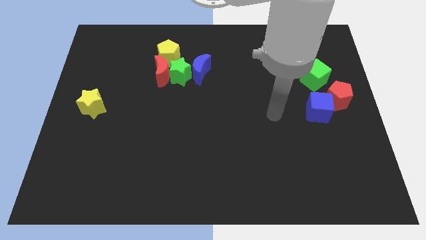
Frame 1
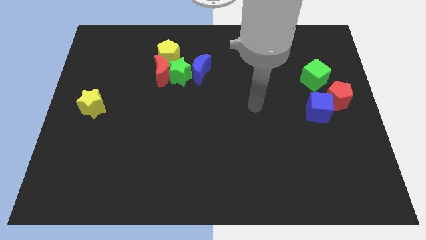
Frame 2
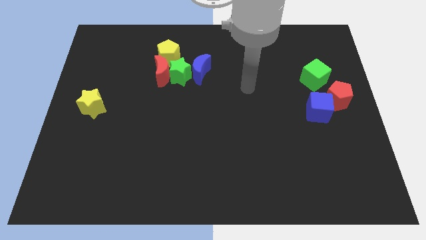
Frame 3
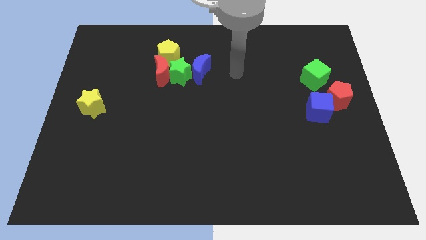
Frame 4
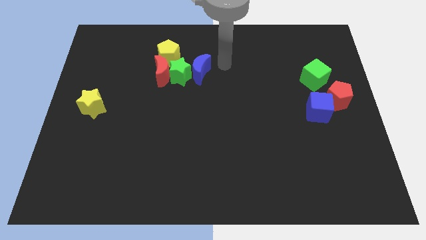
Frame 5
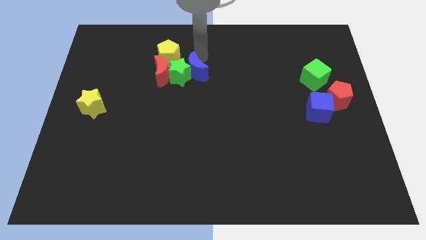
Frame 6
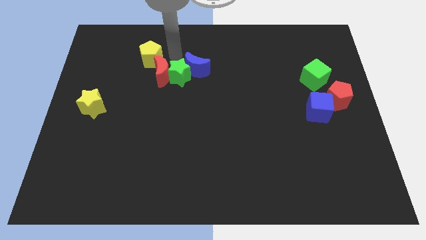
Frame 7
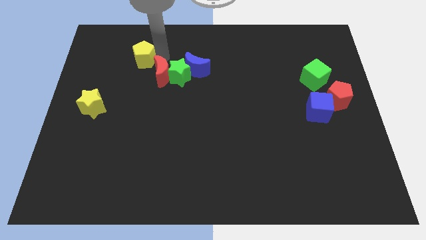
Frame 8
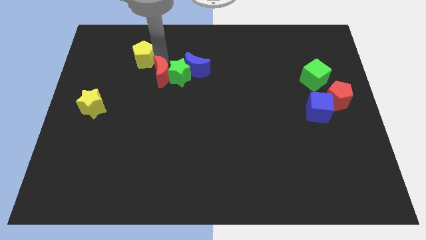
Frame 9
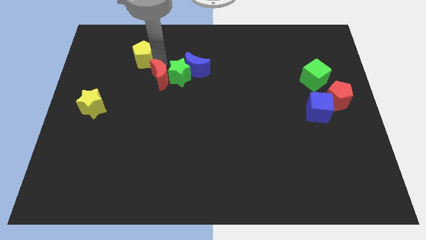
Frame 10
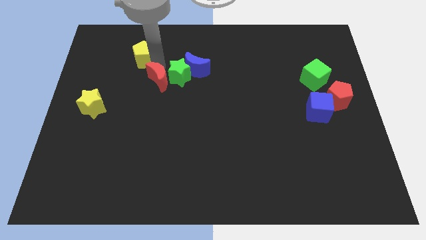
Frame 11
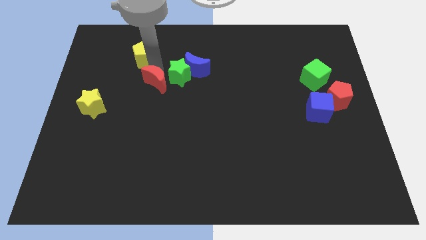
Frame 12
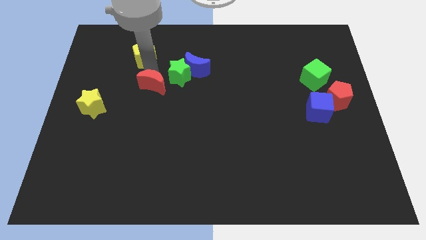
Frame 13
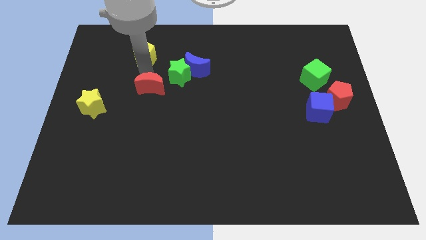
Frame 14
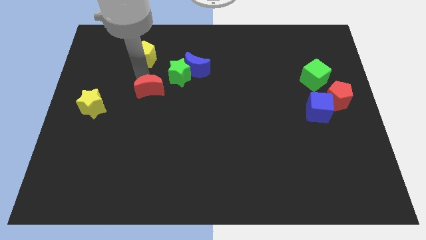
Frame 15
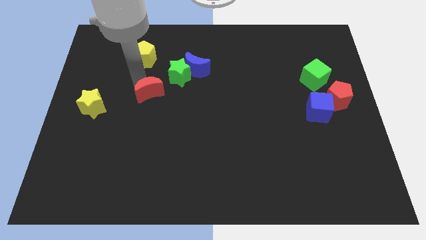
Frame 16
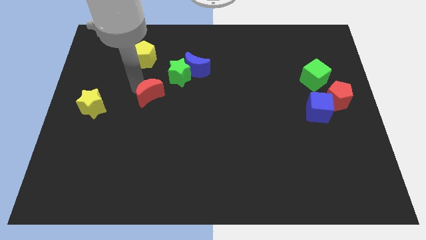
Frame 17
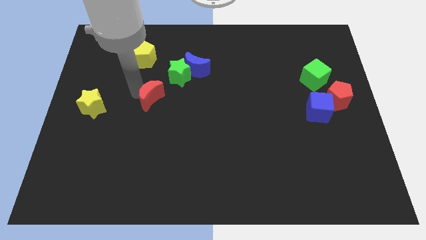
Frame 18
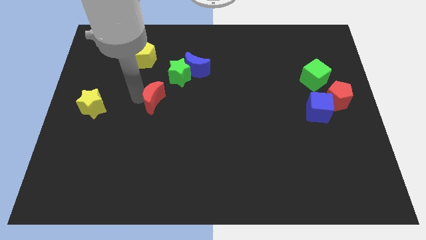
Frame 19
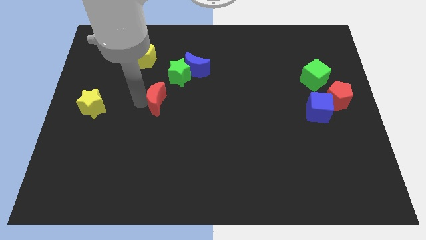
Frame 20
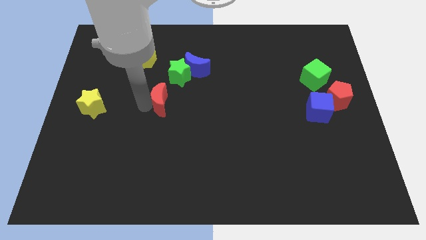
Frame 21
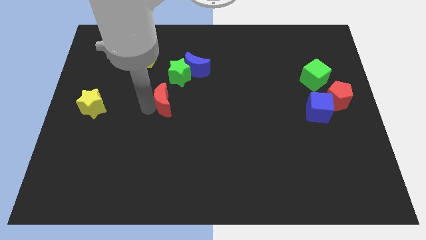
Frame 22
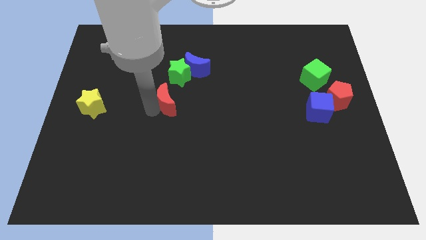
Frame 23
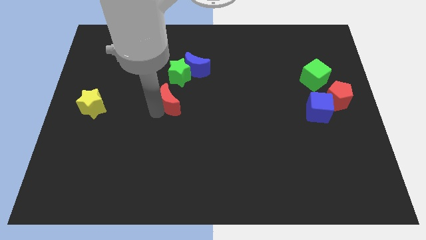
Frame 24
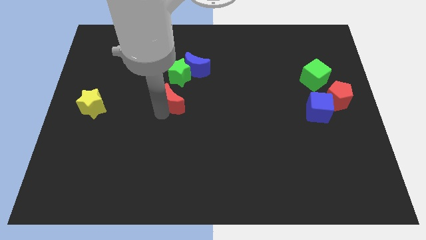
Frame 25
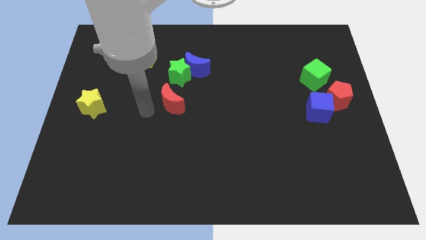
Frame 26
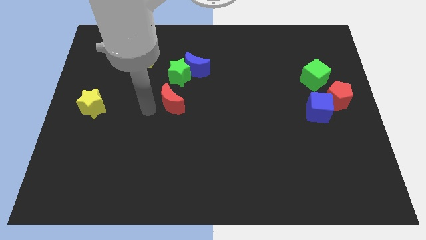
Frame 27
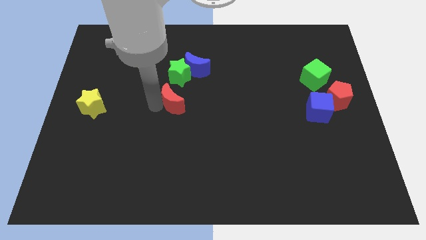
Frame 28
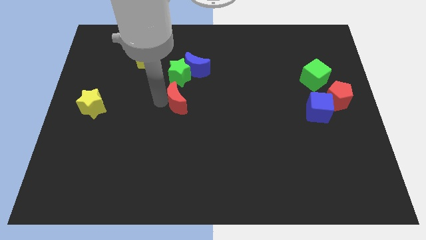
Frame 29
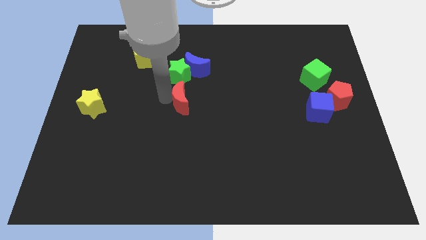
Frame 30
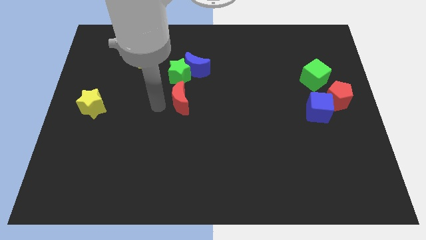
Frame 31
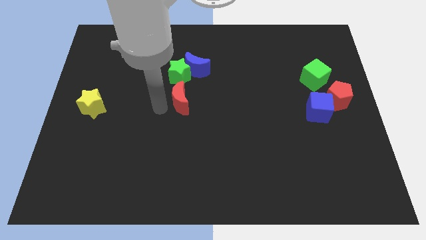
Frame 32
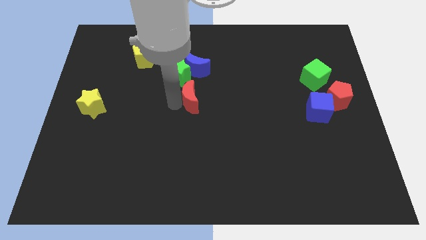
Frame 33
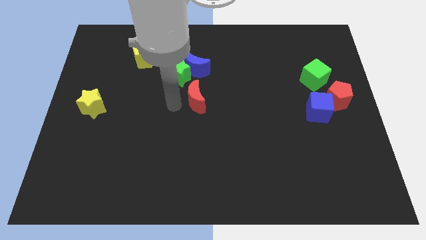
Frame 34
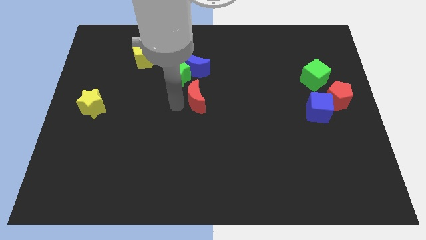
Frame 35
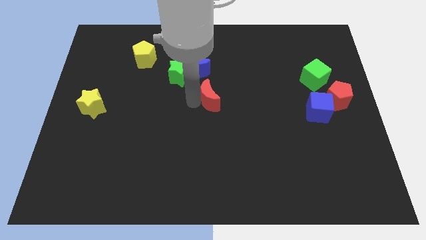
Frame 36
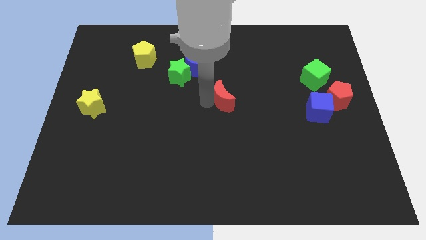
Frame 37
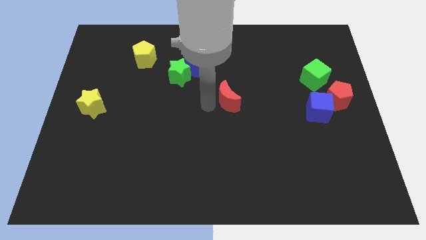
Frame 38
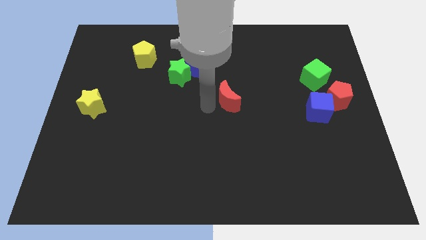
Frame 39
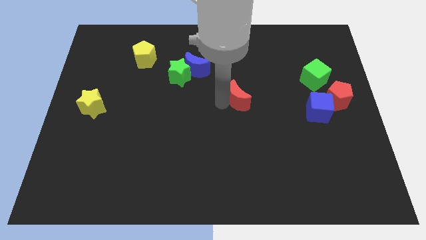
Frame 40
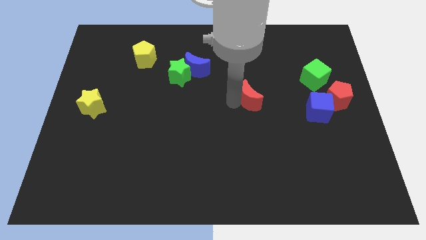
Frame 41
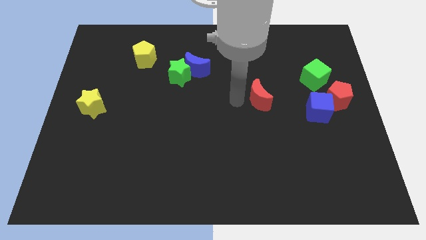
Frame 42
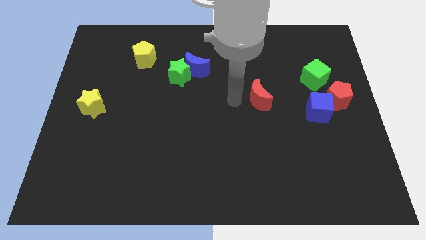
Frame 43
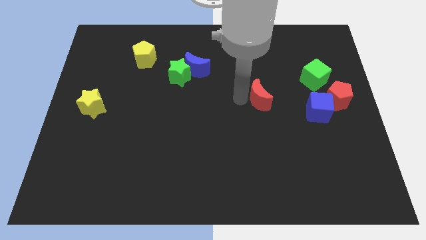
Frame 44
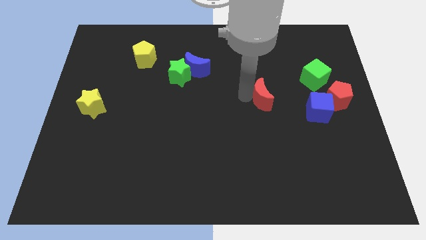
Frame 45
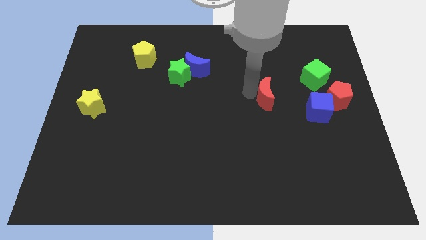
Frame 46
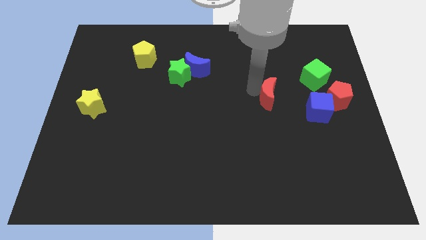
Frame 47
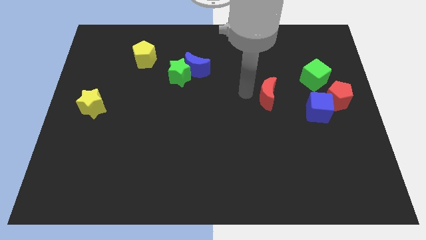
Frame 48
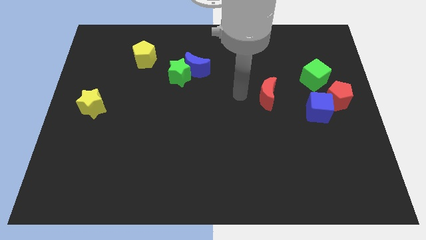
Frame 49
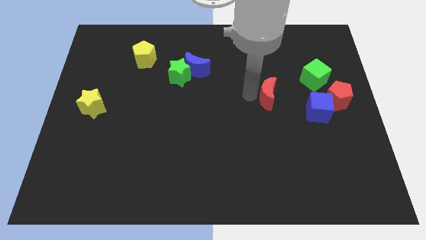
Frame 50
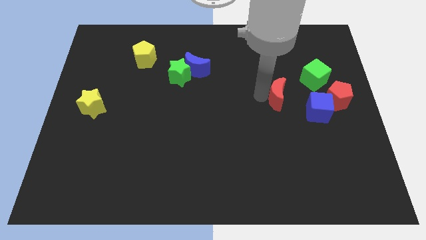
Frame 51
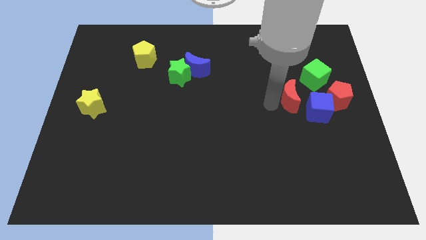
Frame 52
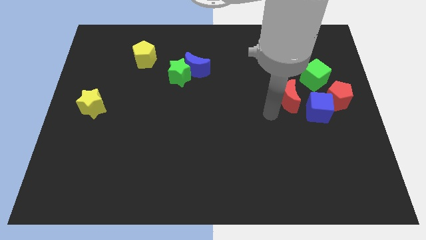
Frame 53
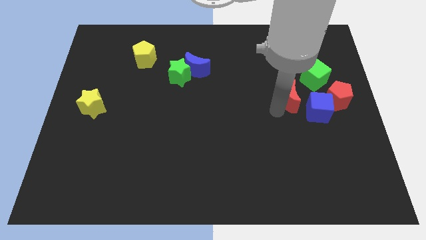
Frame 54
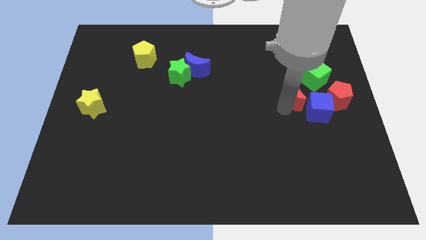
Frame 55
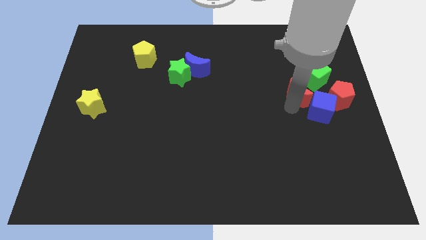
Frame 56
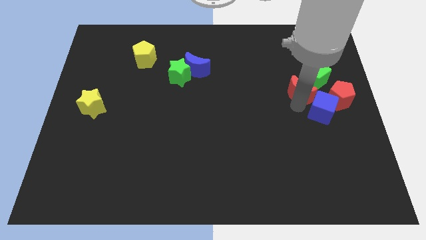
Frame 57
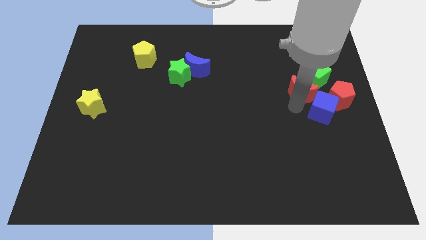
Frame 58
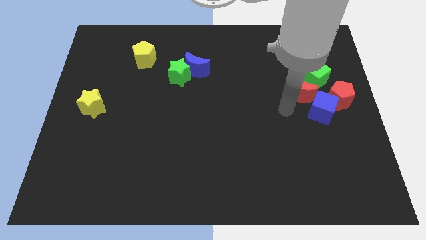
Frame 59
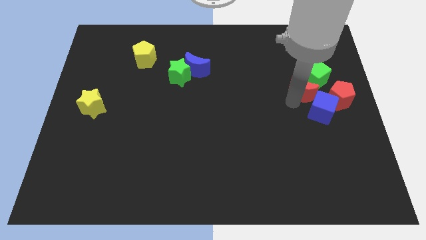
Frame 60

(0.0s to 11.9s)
move the red moon next to the green cube

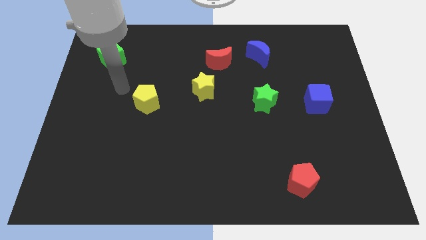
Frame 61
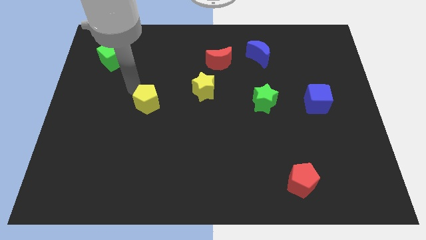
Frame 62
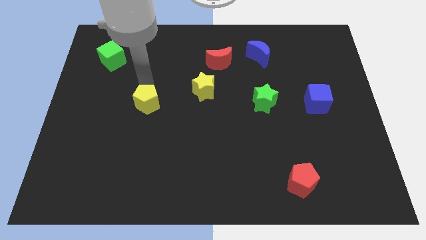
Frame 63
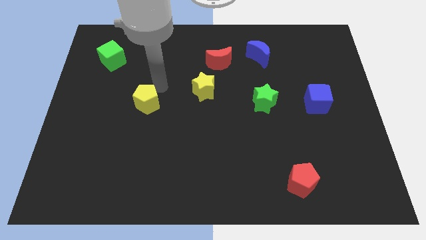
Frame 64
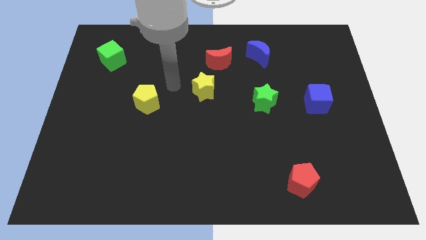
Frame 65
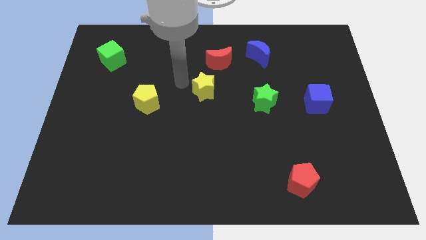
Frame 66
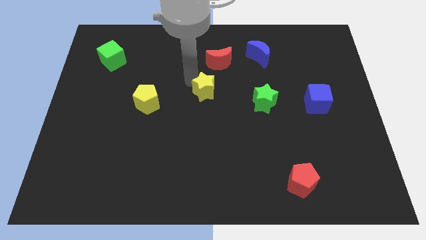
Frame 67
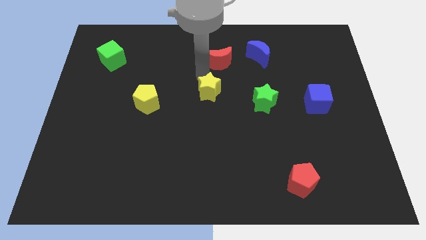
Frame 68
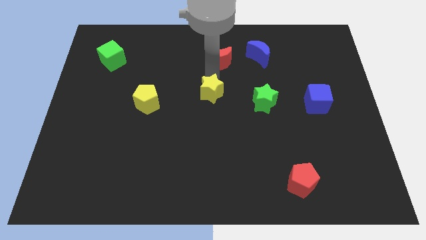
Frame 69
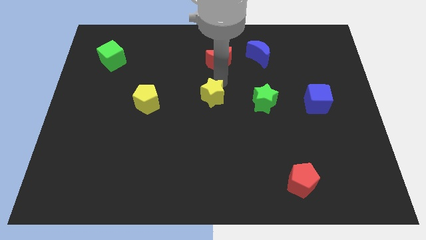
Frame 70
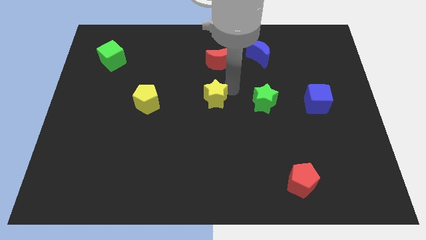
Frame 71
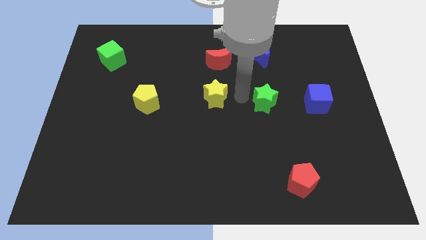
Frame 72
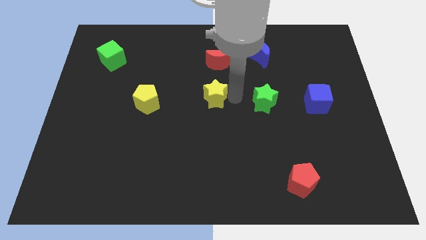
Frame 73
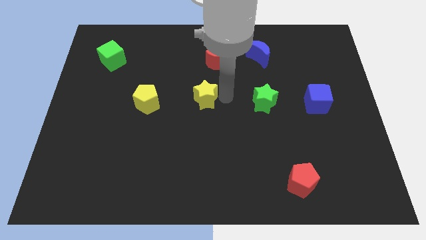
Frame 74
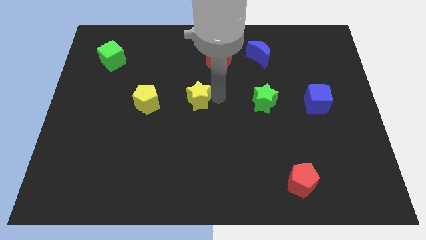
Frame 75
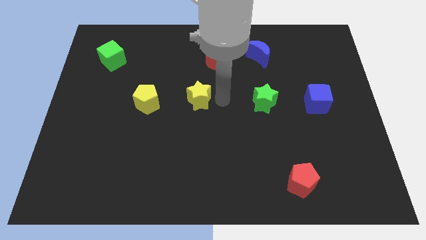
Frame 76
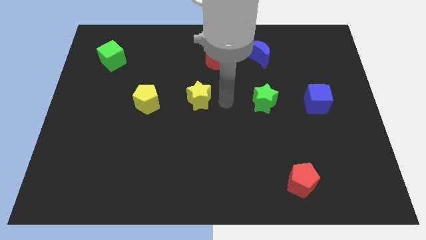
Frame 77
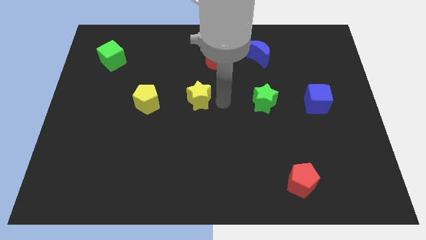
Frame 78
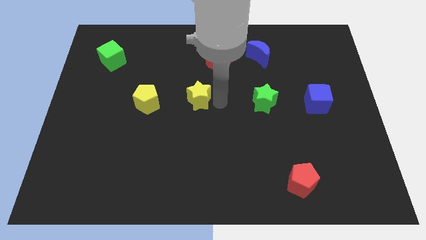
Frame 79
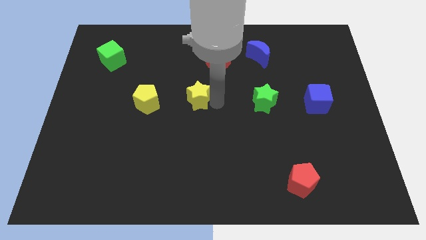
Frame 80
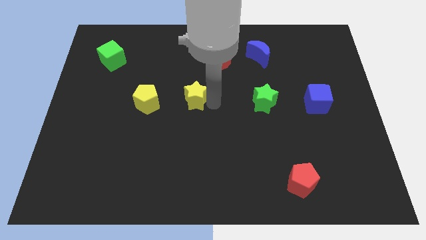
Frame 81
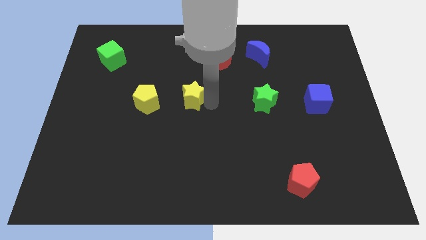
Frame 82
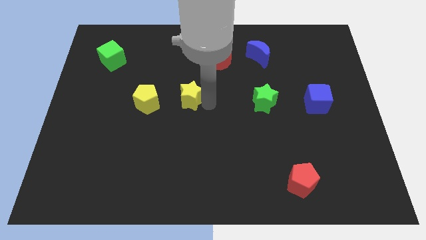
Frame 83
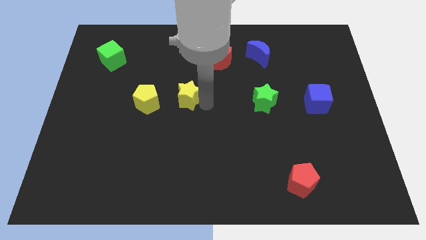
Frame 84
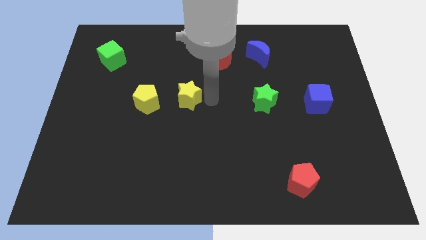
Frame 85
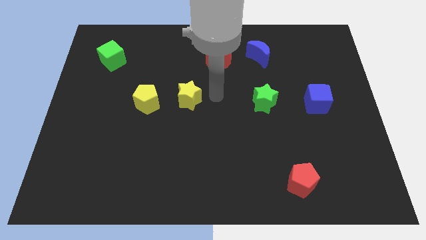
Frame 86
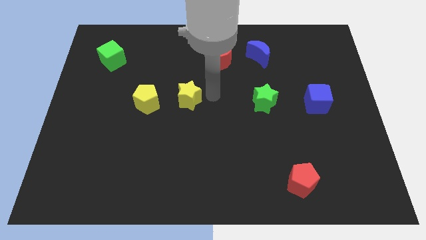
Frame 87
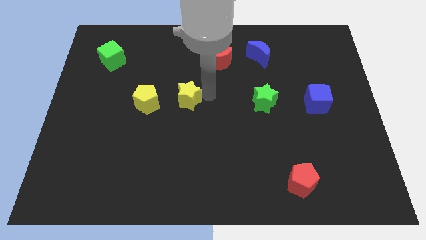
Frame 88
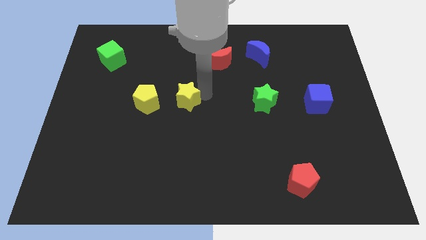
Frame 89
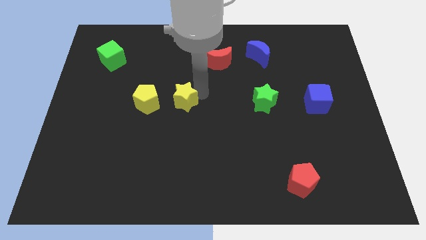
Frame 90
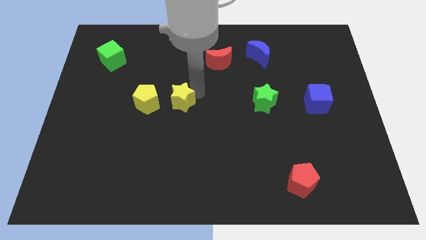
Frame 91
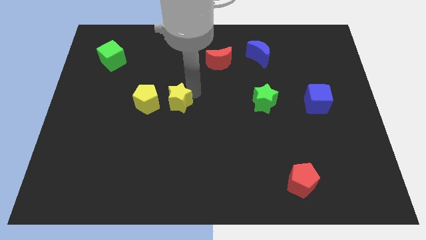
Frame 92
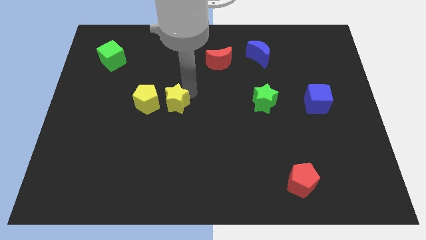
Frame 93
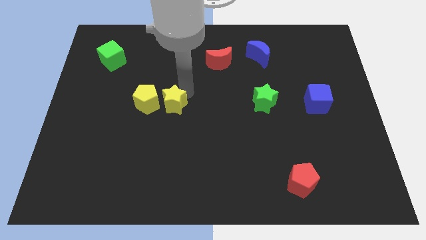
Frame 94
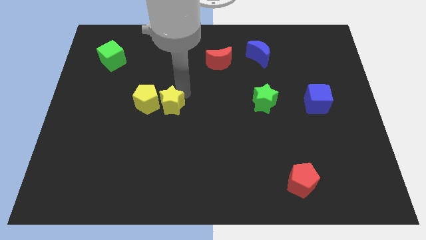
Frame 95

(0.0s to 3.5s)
slide the yellow star close to the yellow pentagon
